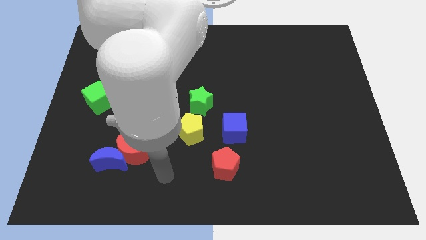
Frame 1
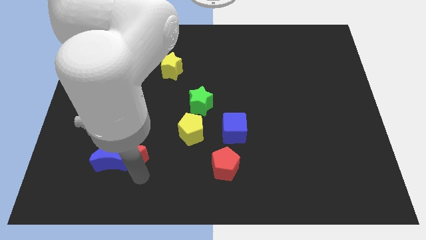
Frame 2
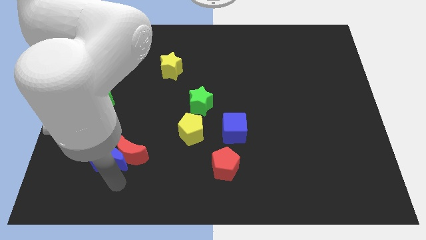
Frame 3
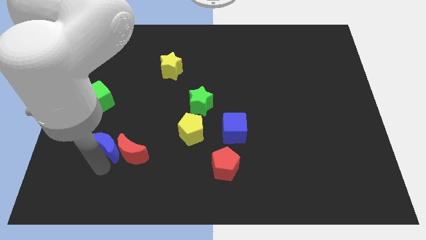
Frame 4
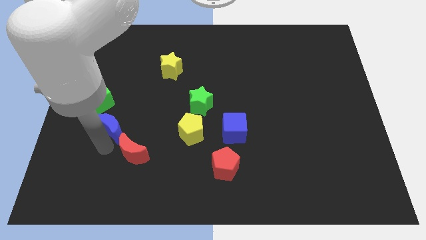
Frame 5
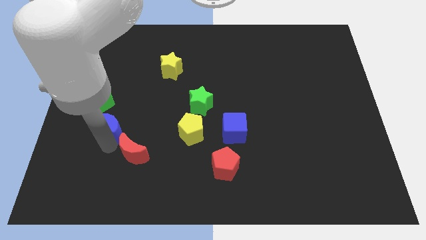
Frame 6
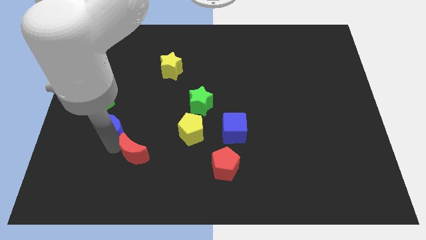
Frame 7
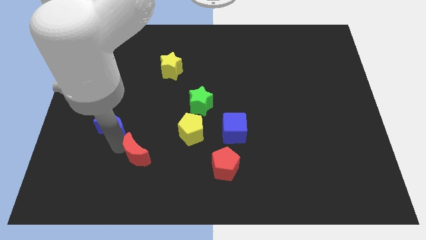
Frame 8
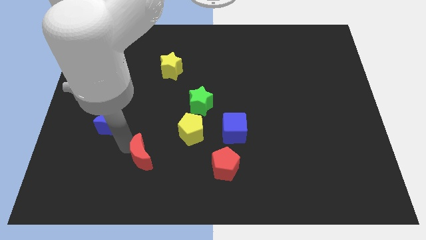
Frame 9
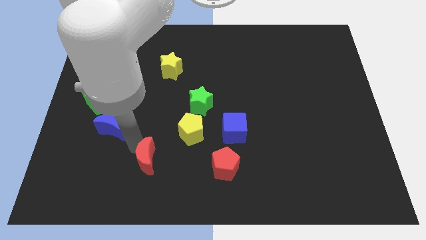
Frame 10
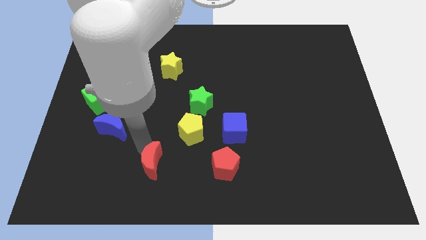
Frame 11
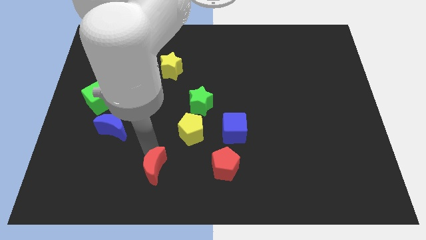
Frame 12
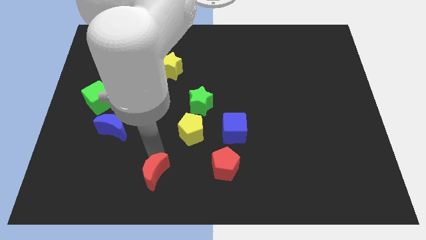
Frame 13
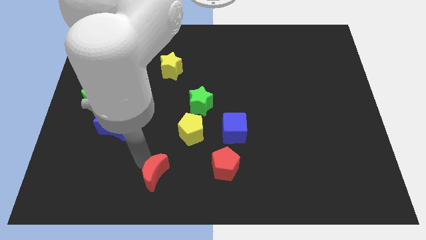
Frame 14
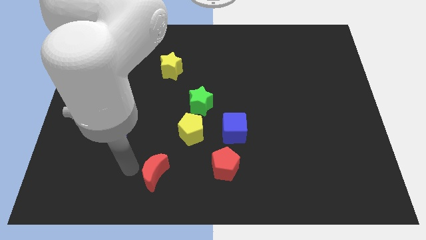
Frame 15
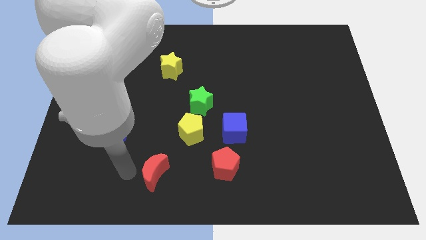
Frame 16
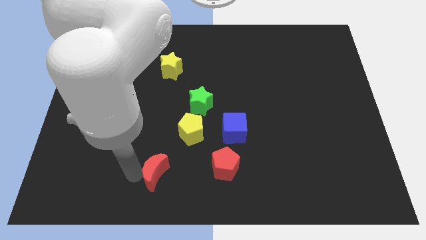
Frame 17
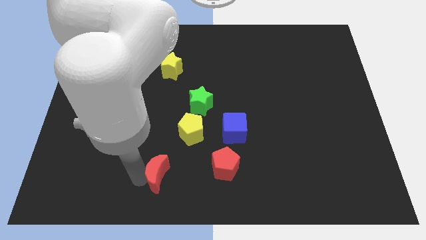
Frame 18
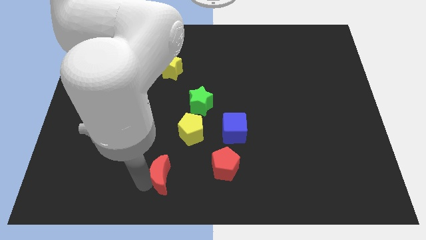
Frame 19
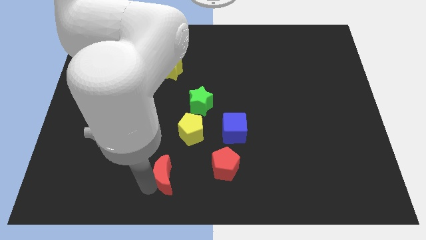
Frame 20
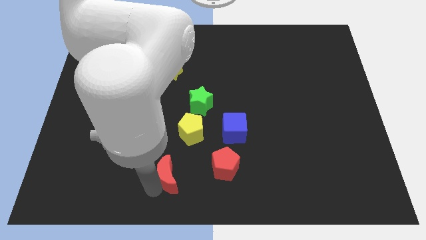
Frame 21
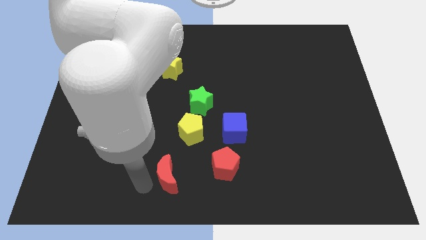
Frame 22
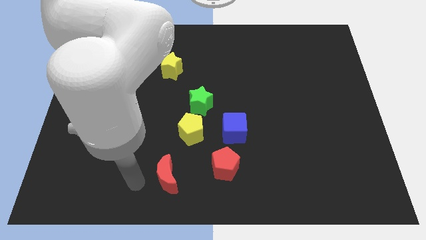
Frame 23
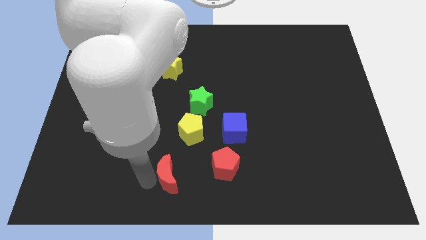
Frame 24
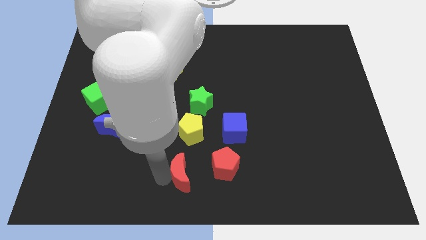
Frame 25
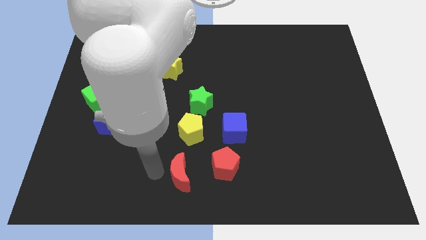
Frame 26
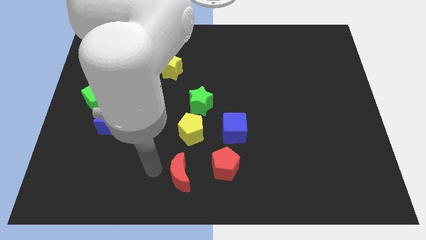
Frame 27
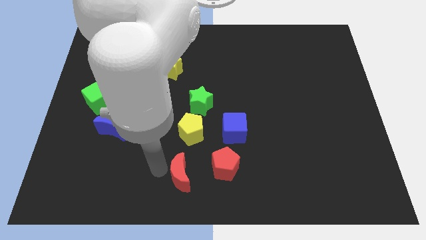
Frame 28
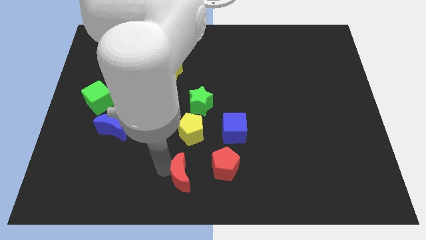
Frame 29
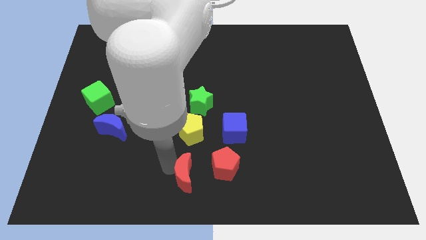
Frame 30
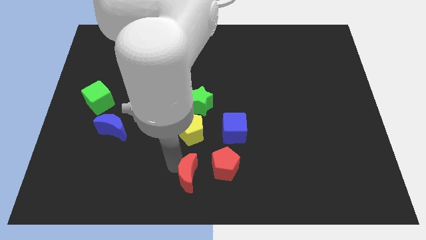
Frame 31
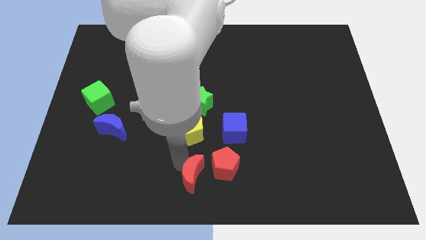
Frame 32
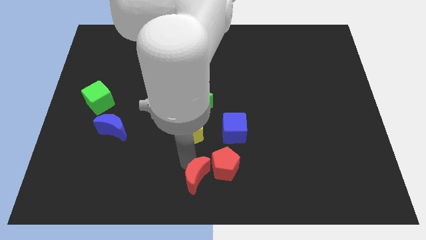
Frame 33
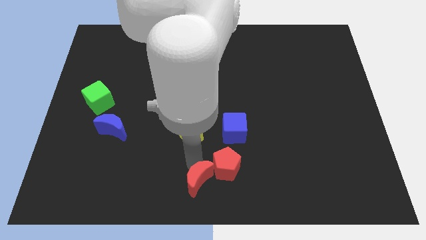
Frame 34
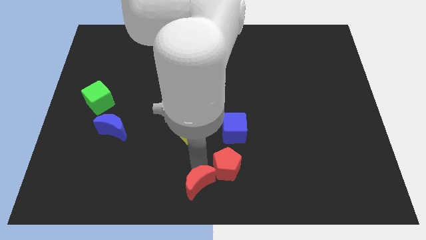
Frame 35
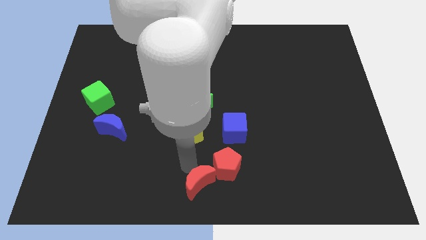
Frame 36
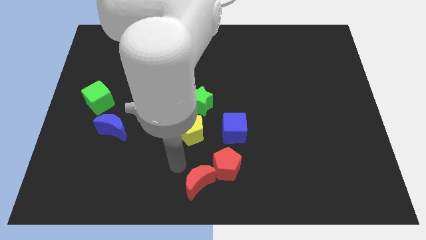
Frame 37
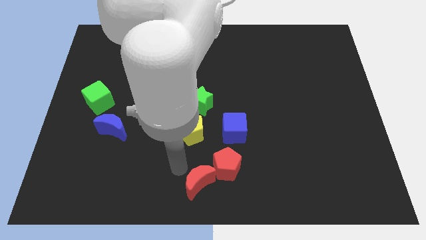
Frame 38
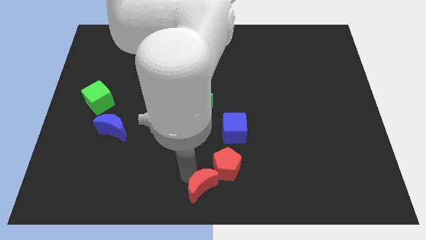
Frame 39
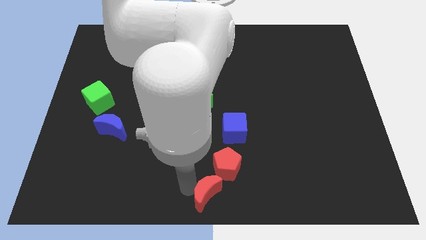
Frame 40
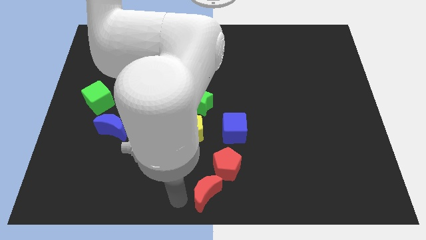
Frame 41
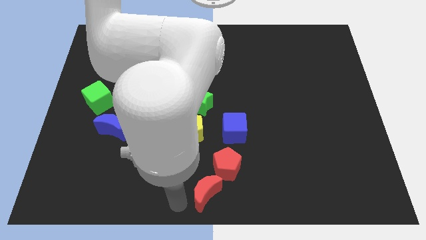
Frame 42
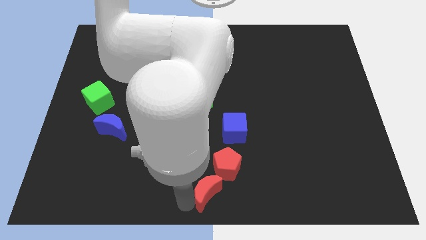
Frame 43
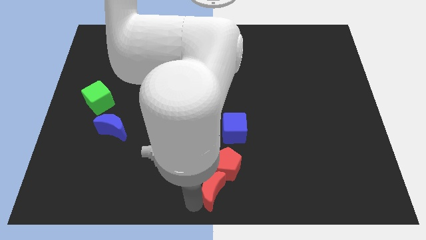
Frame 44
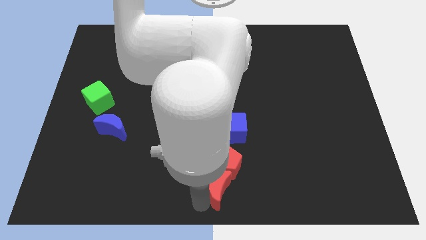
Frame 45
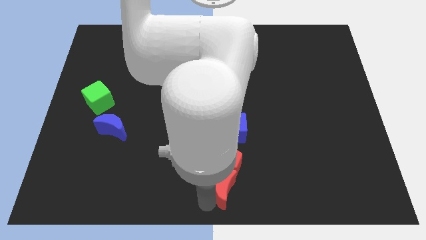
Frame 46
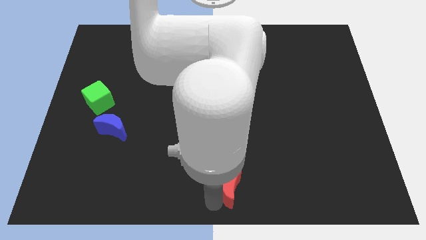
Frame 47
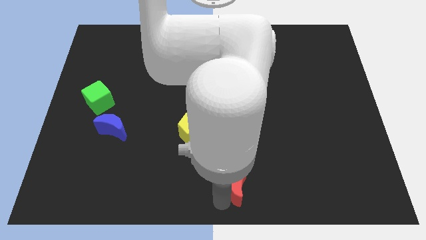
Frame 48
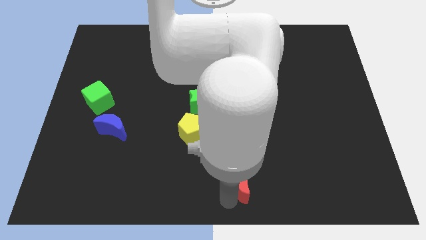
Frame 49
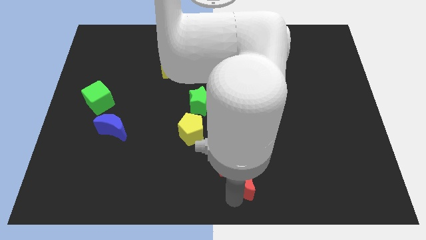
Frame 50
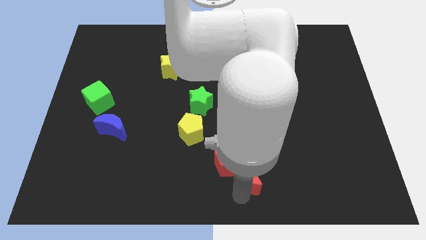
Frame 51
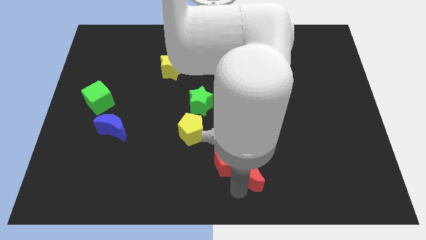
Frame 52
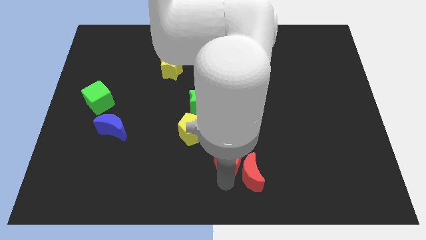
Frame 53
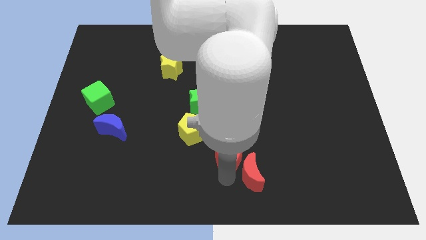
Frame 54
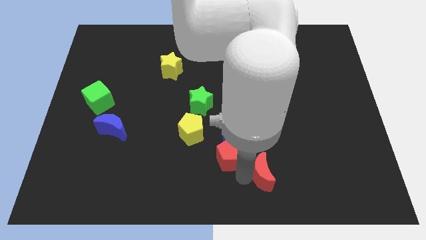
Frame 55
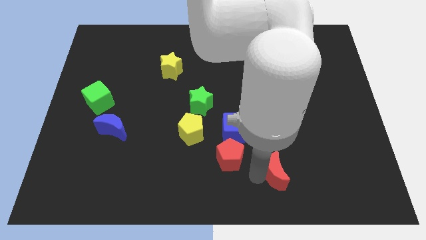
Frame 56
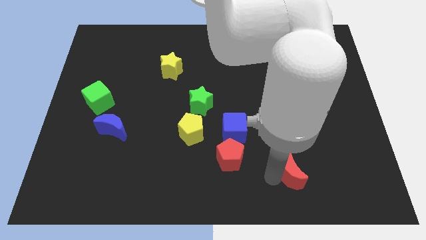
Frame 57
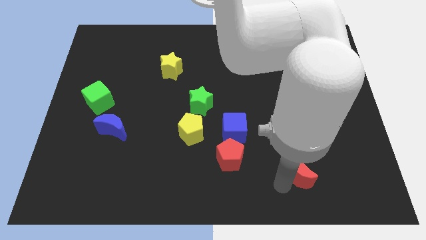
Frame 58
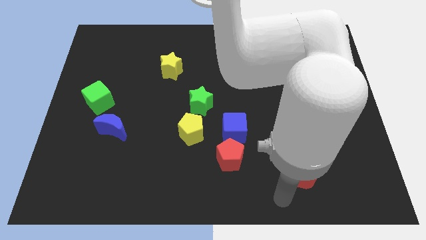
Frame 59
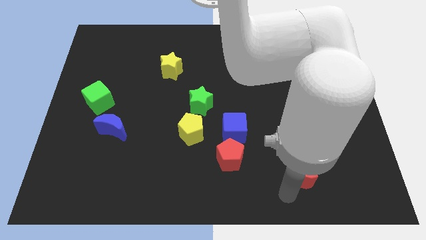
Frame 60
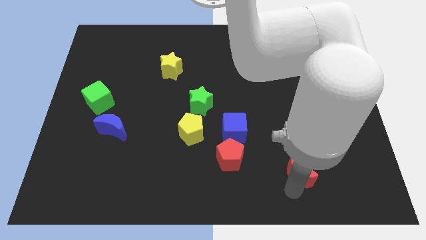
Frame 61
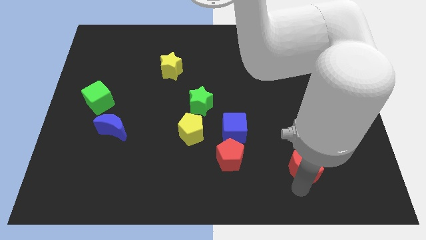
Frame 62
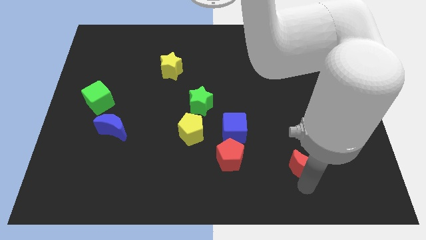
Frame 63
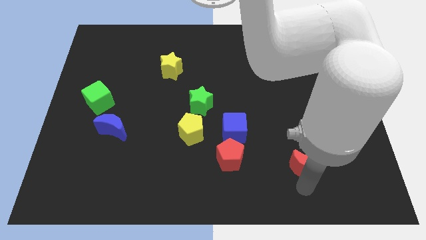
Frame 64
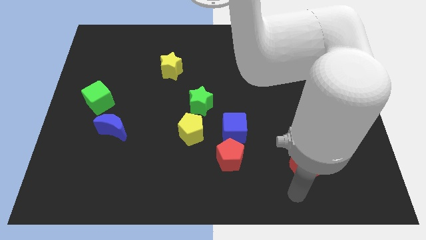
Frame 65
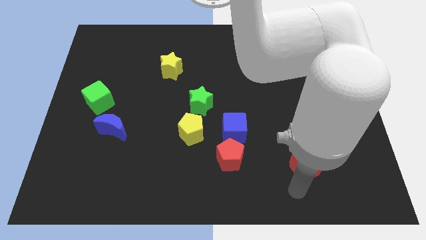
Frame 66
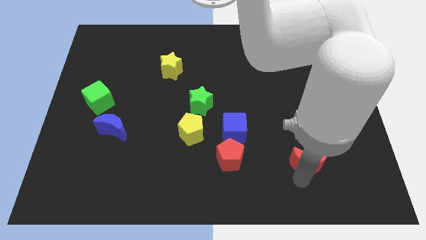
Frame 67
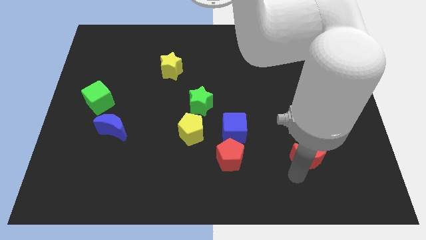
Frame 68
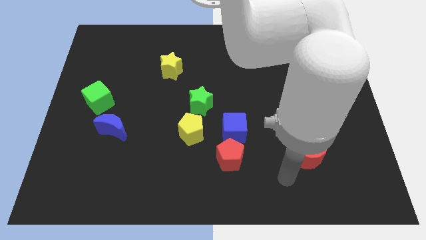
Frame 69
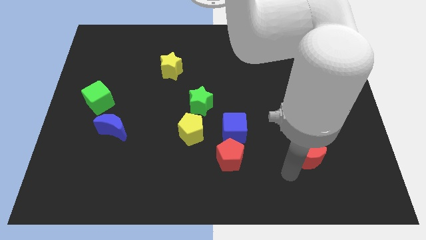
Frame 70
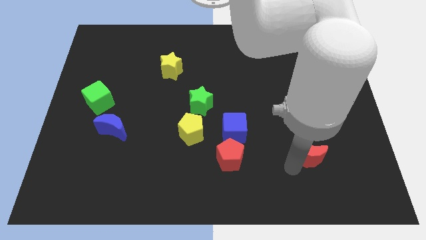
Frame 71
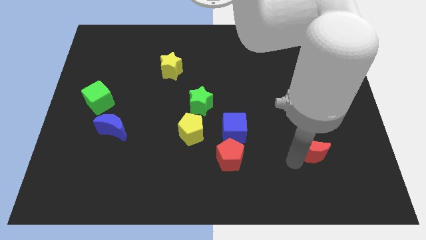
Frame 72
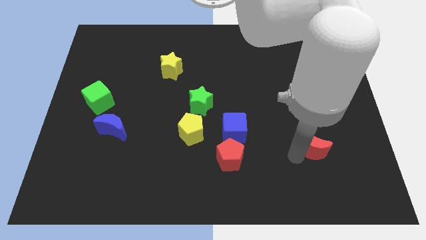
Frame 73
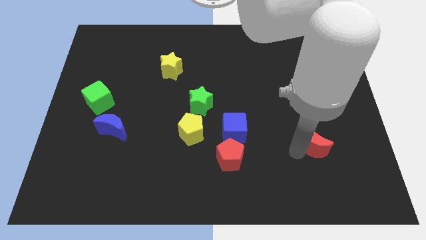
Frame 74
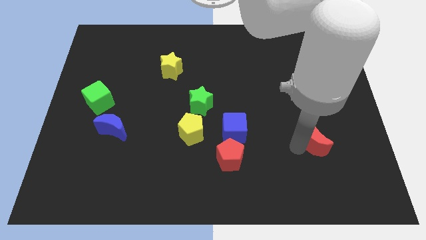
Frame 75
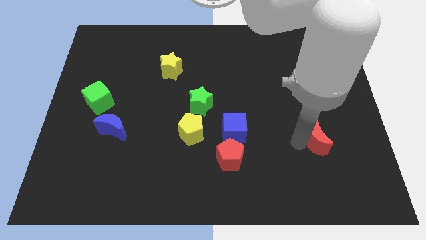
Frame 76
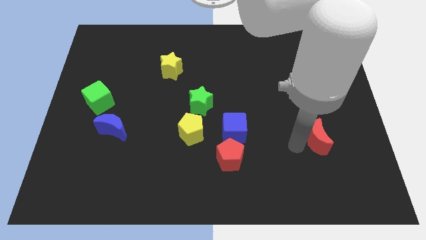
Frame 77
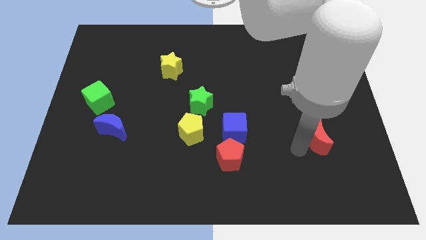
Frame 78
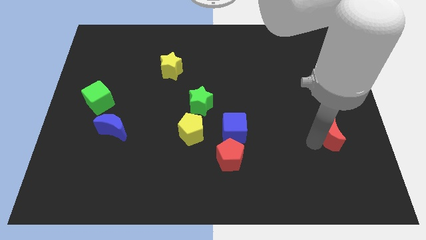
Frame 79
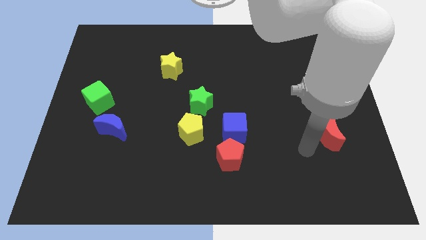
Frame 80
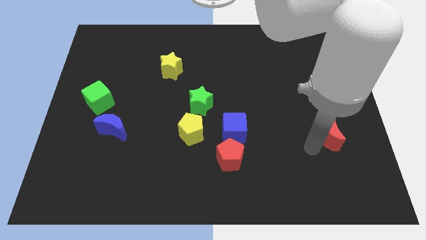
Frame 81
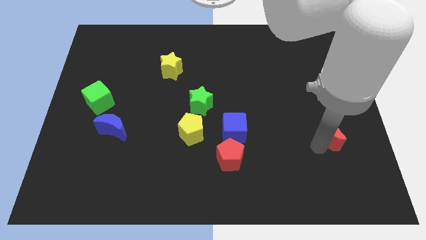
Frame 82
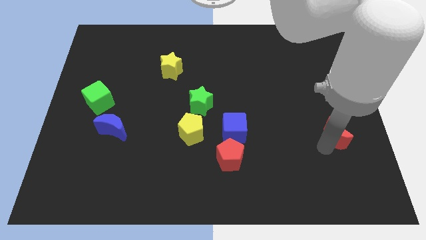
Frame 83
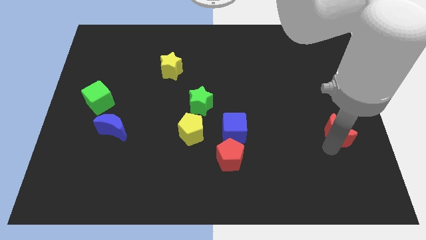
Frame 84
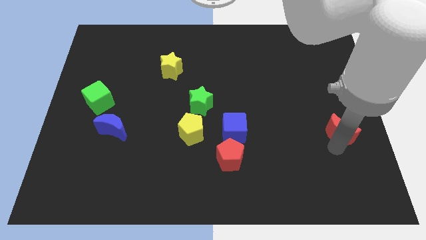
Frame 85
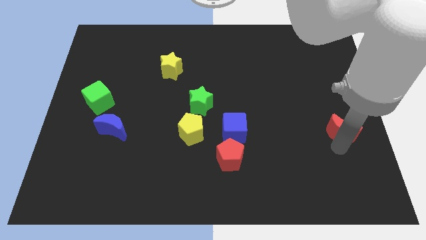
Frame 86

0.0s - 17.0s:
push the red moon to the right side
